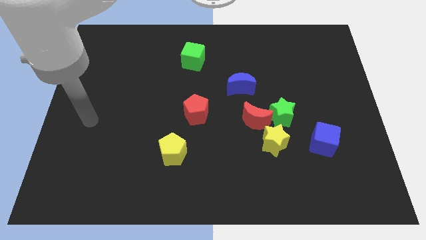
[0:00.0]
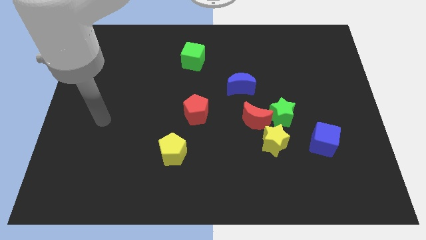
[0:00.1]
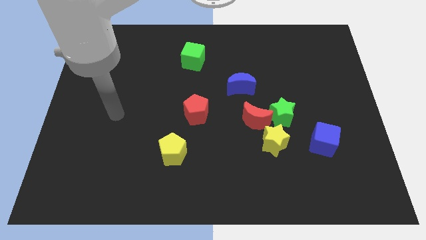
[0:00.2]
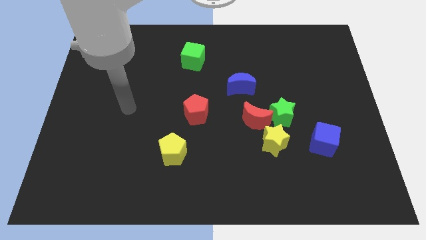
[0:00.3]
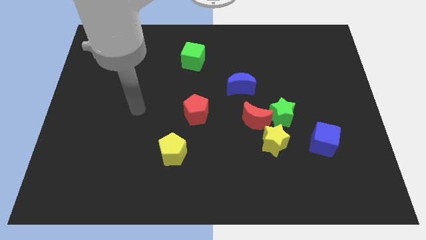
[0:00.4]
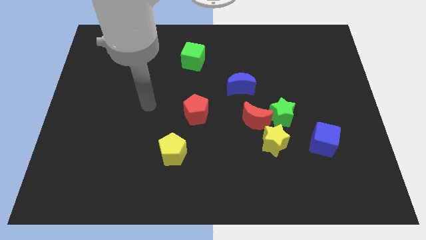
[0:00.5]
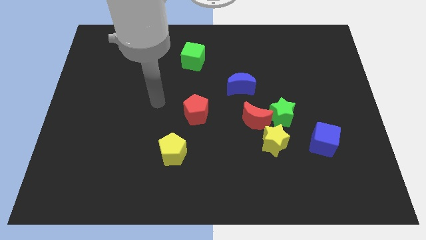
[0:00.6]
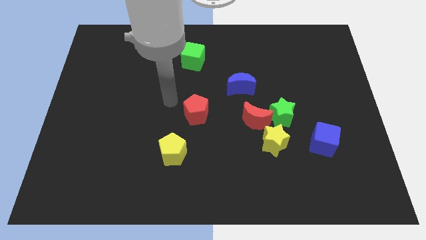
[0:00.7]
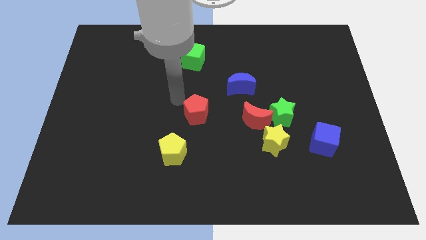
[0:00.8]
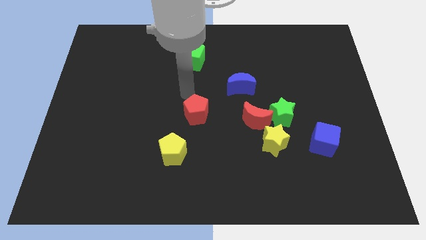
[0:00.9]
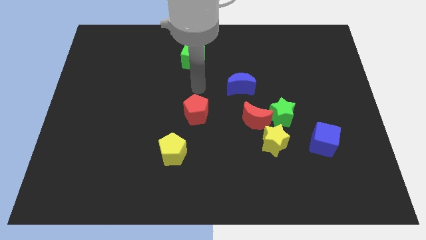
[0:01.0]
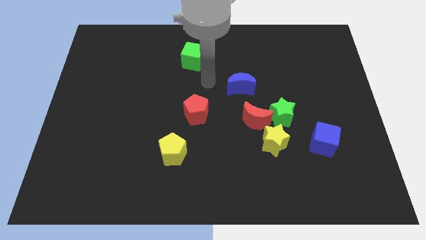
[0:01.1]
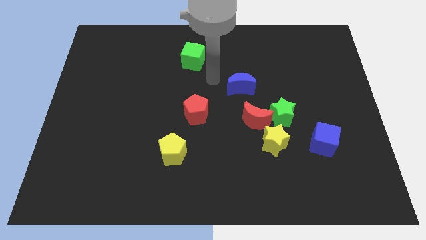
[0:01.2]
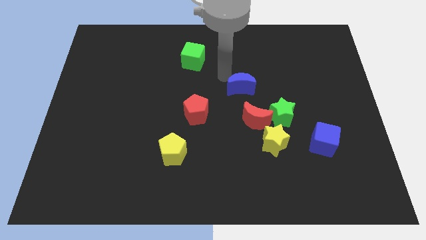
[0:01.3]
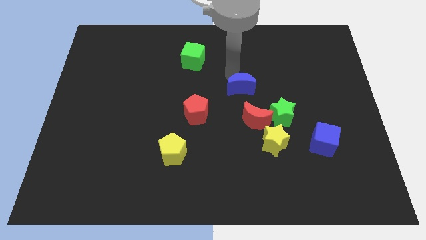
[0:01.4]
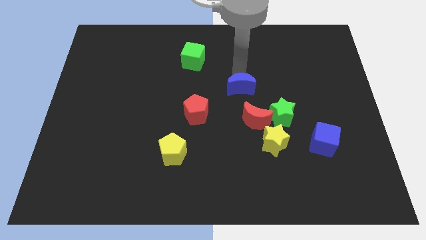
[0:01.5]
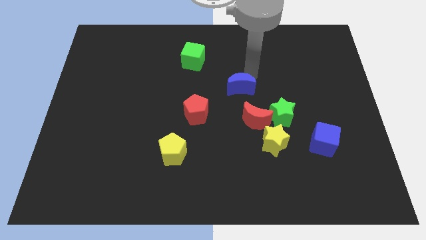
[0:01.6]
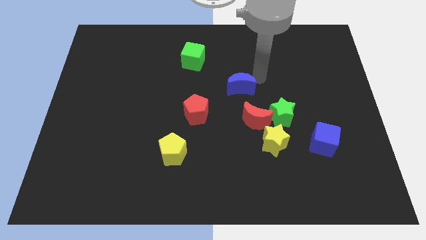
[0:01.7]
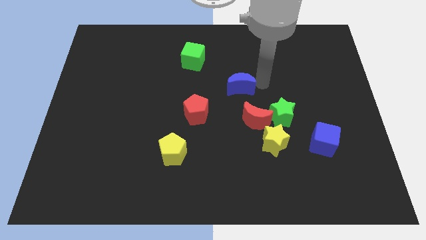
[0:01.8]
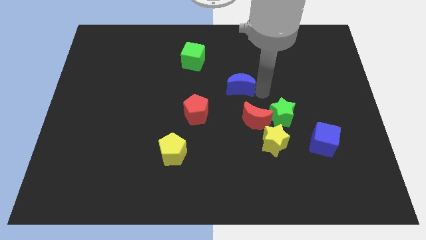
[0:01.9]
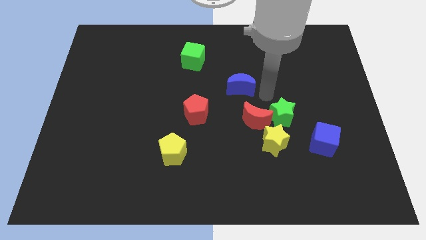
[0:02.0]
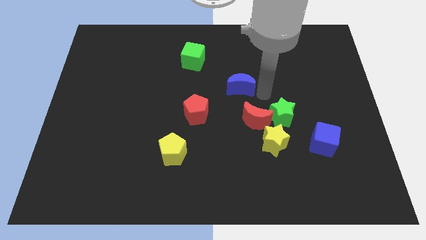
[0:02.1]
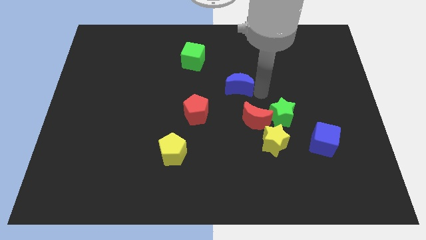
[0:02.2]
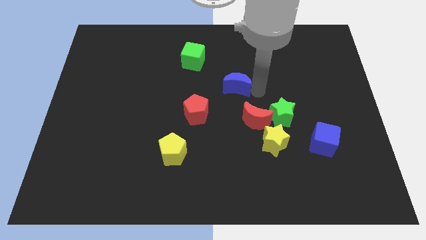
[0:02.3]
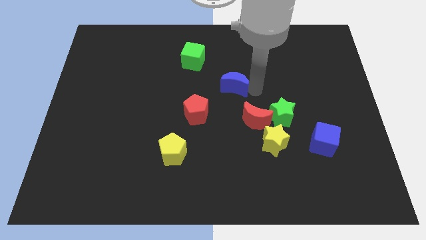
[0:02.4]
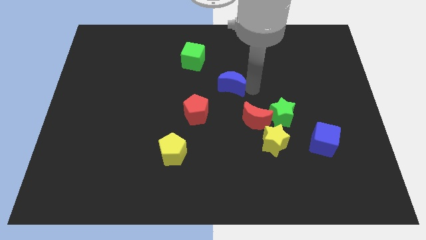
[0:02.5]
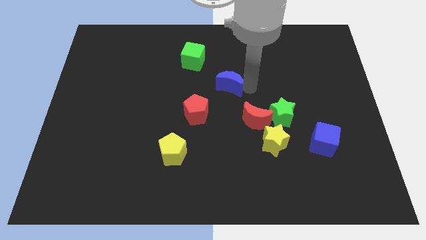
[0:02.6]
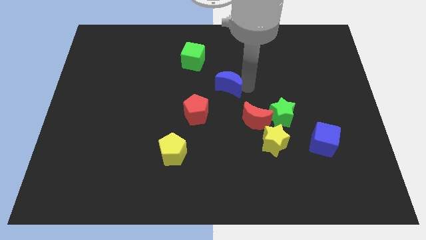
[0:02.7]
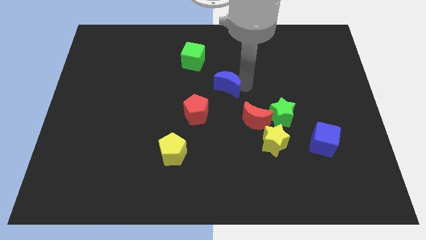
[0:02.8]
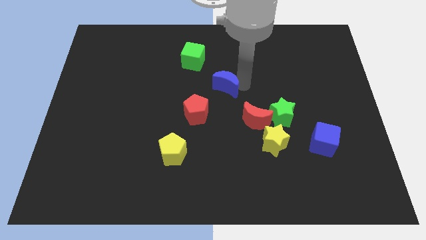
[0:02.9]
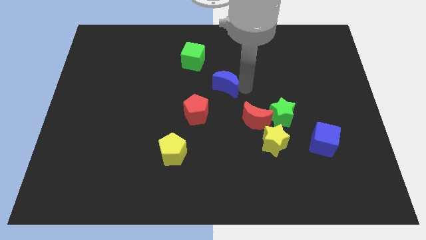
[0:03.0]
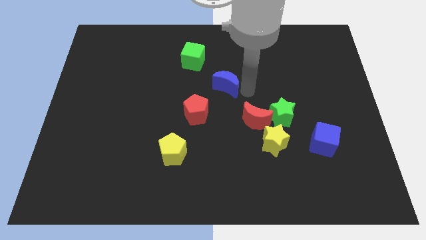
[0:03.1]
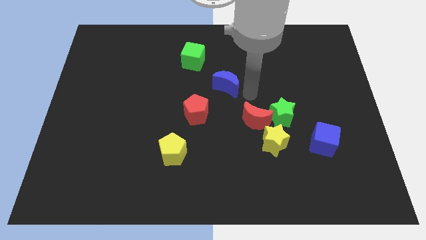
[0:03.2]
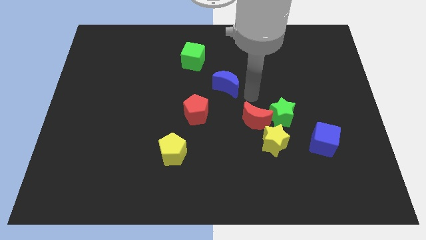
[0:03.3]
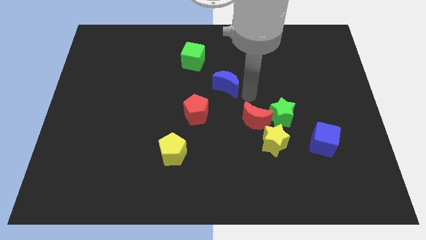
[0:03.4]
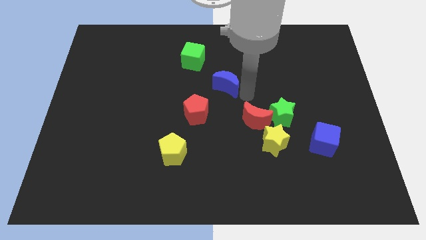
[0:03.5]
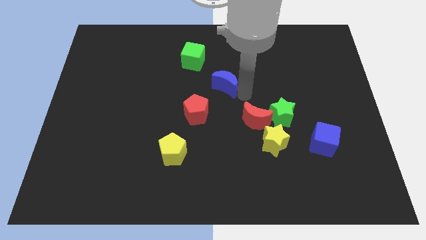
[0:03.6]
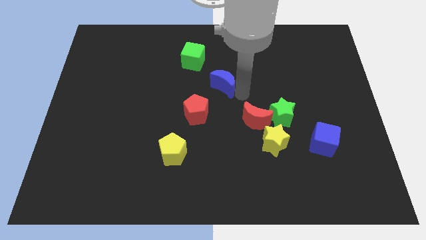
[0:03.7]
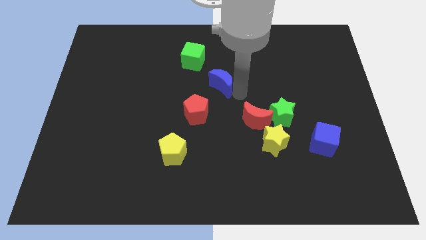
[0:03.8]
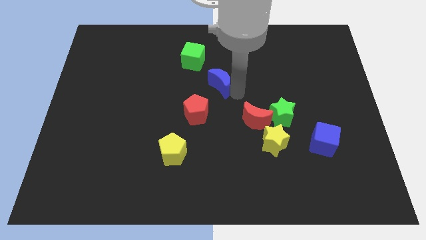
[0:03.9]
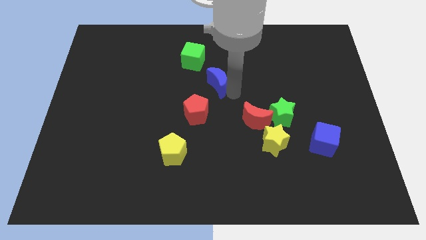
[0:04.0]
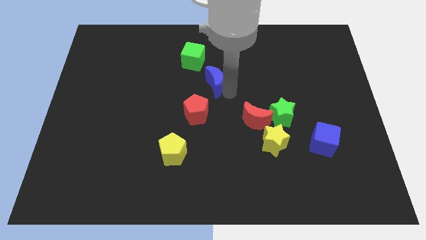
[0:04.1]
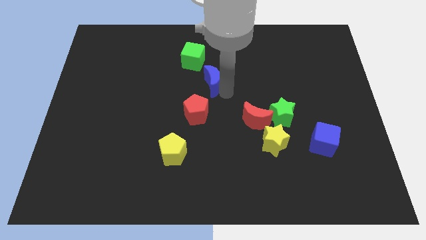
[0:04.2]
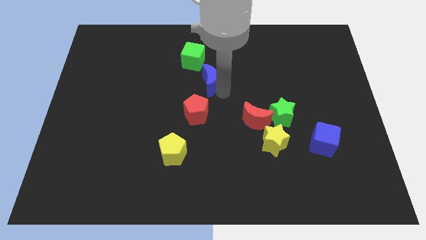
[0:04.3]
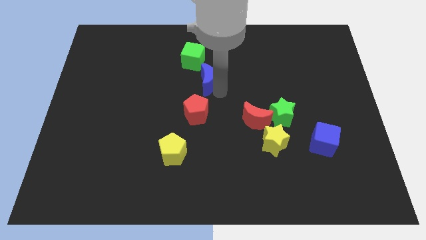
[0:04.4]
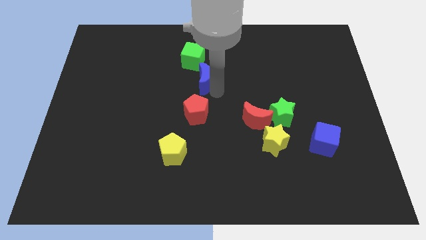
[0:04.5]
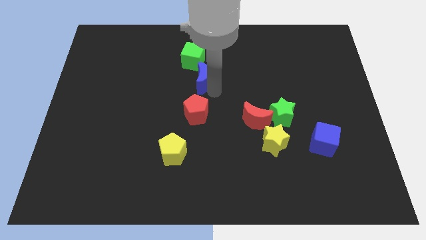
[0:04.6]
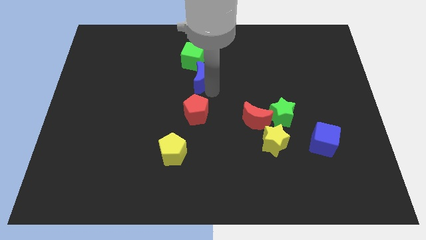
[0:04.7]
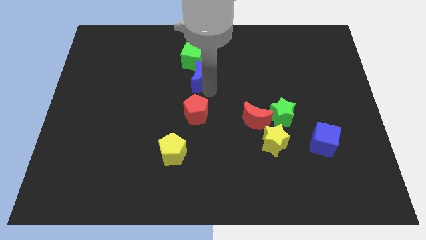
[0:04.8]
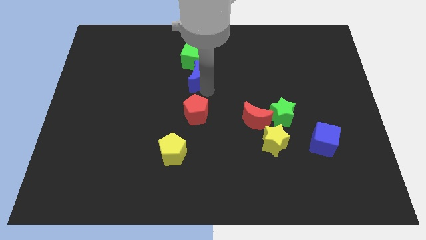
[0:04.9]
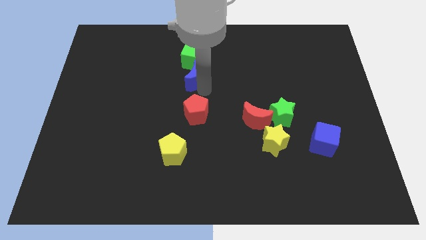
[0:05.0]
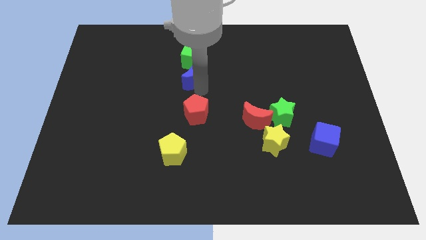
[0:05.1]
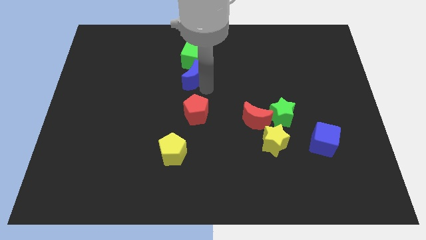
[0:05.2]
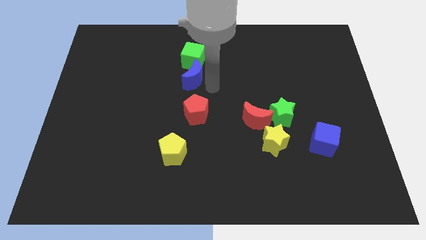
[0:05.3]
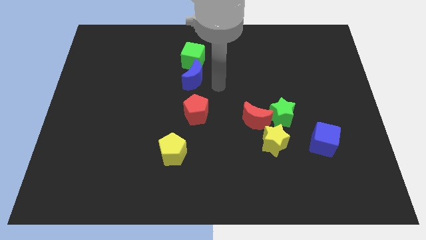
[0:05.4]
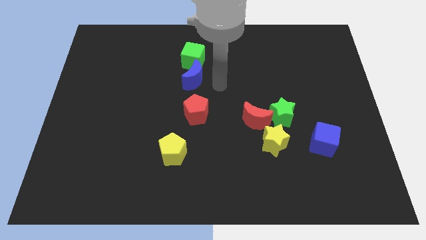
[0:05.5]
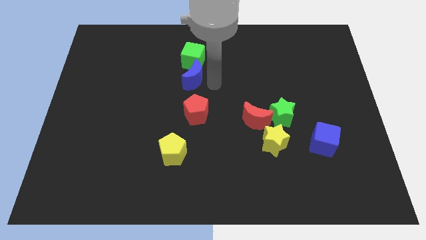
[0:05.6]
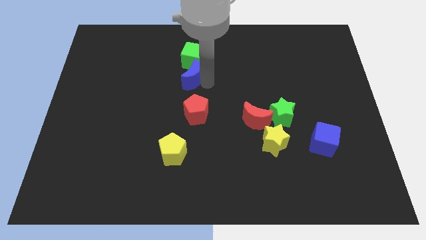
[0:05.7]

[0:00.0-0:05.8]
slide the blue moon to the bottom left of the green cube
